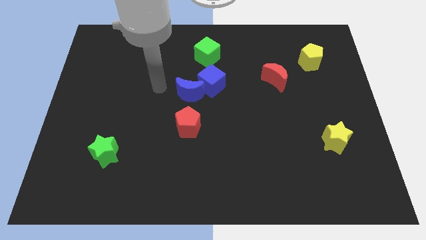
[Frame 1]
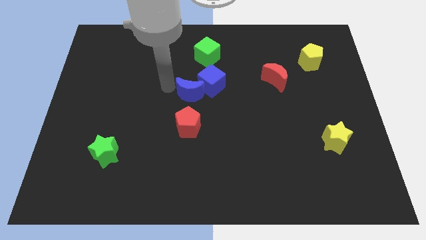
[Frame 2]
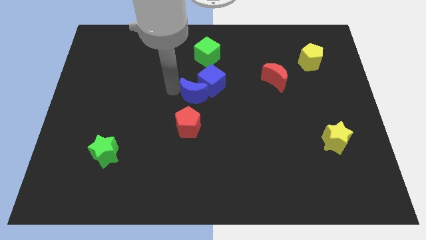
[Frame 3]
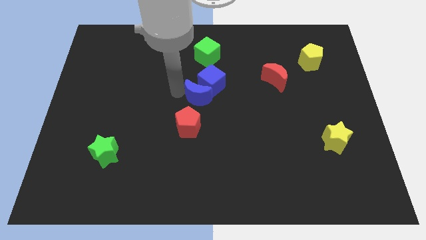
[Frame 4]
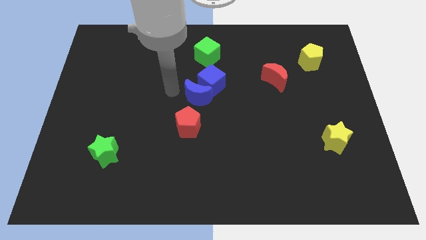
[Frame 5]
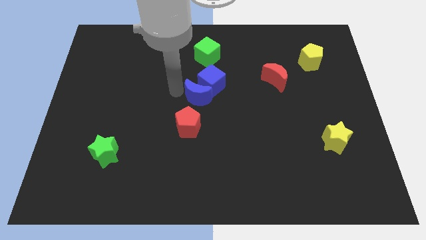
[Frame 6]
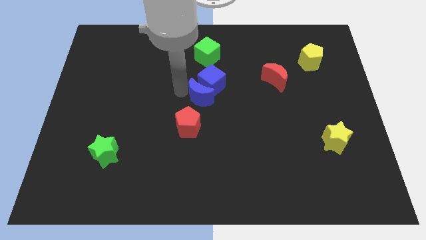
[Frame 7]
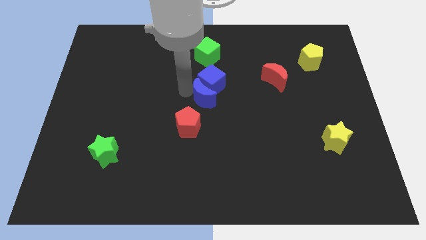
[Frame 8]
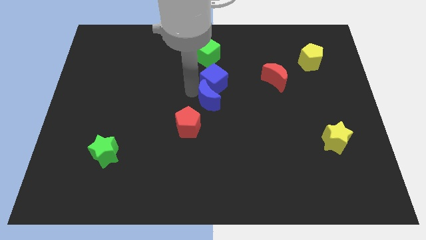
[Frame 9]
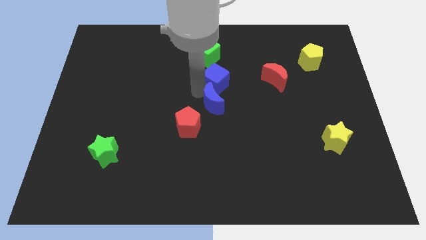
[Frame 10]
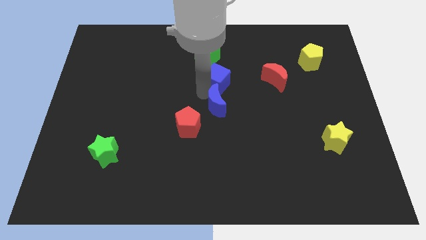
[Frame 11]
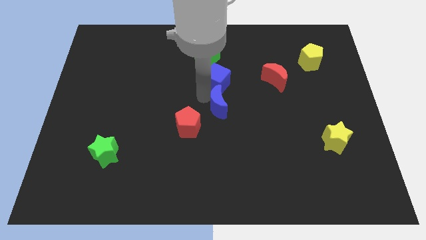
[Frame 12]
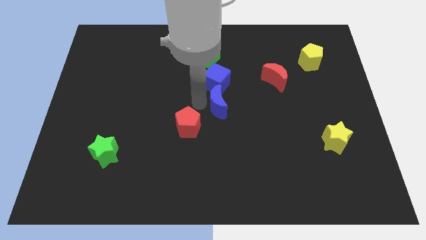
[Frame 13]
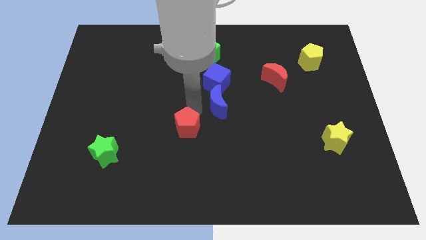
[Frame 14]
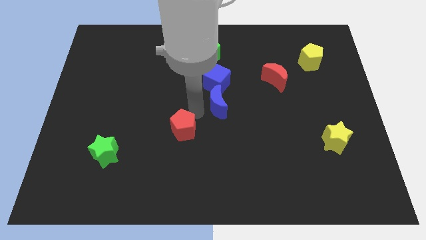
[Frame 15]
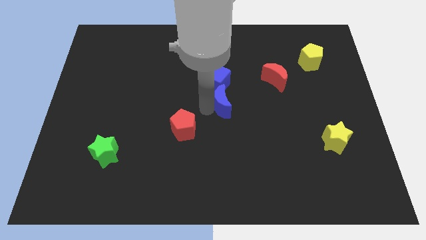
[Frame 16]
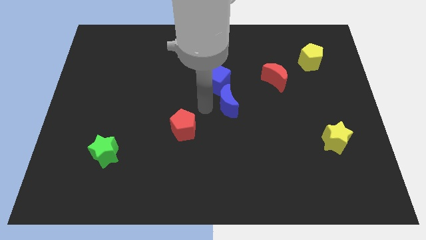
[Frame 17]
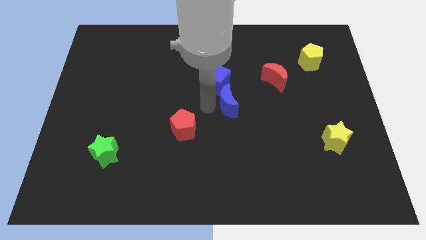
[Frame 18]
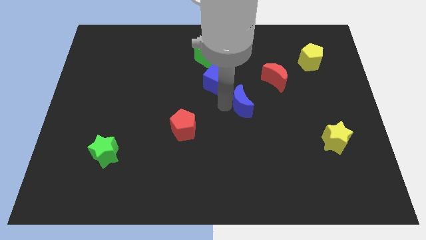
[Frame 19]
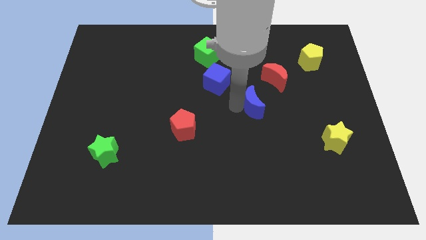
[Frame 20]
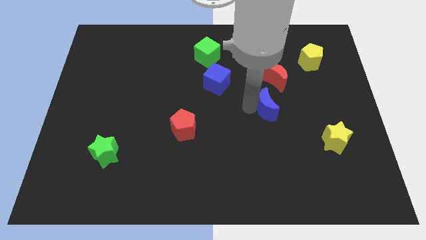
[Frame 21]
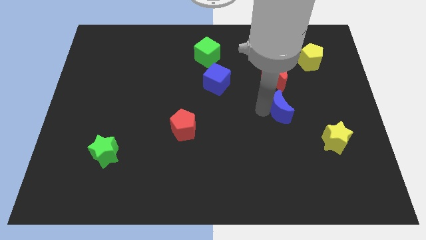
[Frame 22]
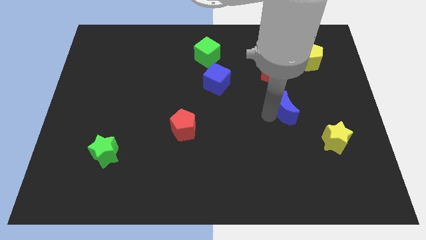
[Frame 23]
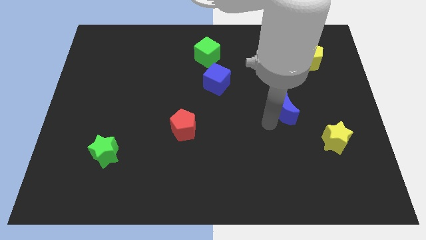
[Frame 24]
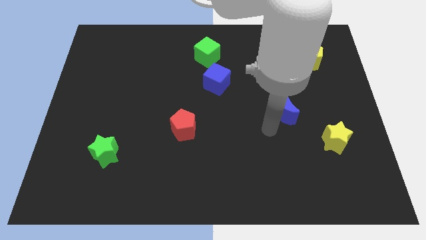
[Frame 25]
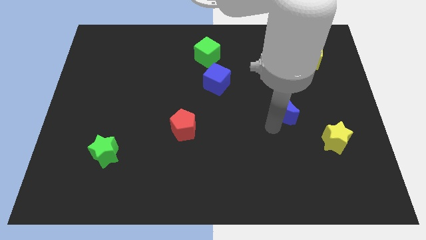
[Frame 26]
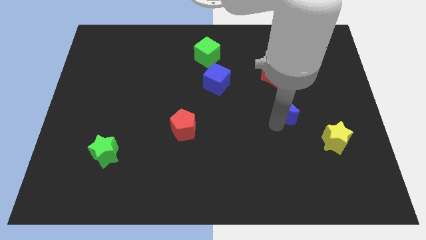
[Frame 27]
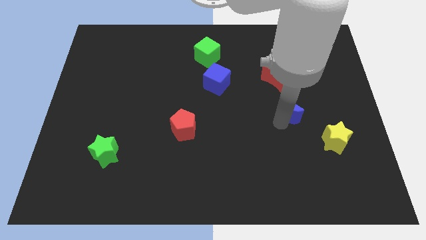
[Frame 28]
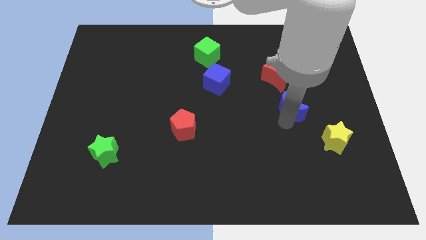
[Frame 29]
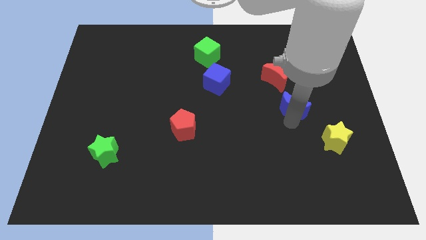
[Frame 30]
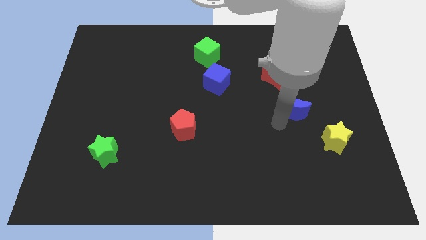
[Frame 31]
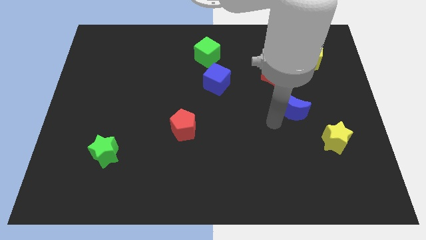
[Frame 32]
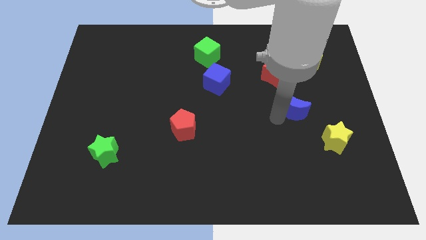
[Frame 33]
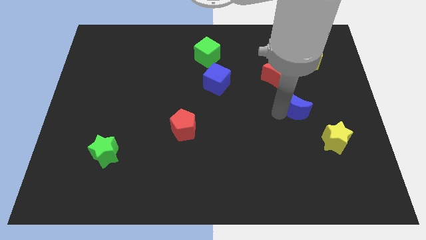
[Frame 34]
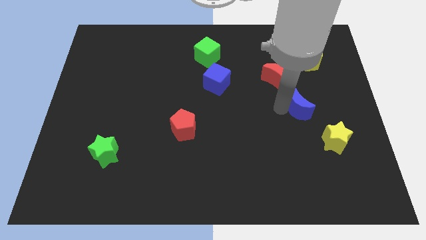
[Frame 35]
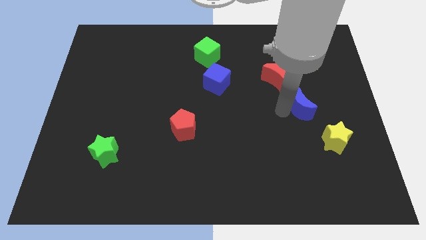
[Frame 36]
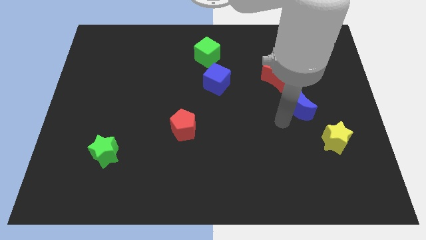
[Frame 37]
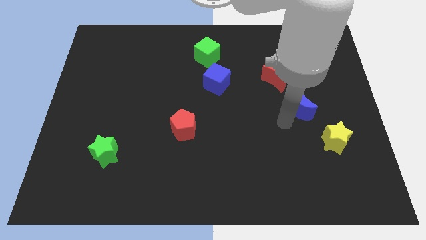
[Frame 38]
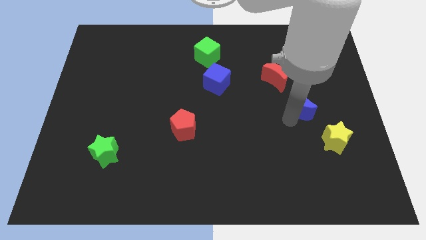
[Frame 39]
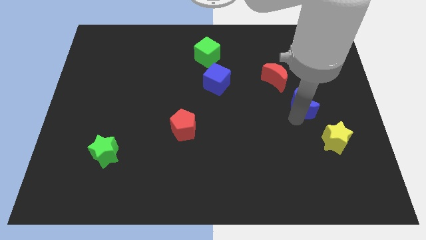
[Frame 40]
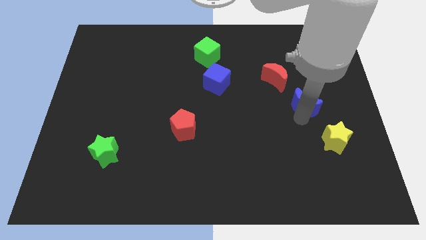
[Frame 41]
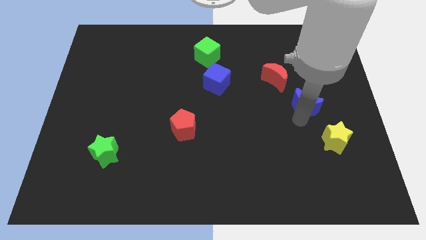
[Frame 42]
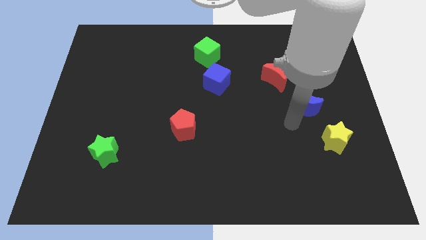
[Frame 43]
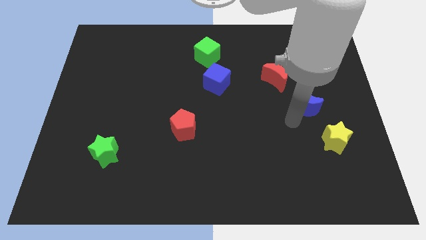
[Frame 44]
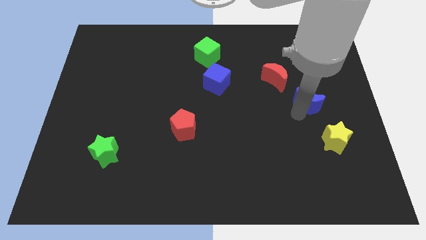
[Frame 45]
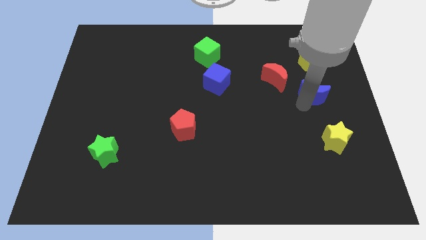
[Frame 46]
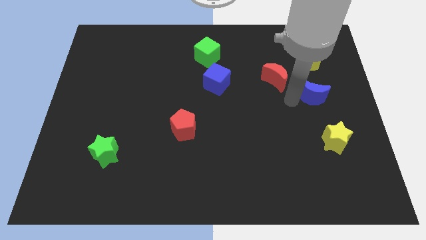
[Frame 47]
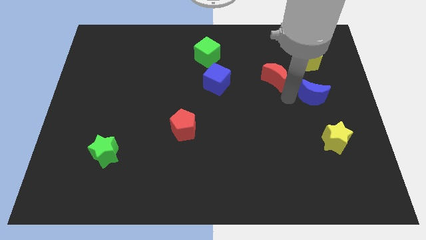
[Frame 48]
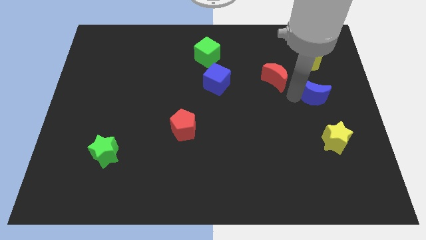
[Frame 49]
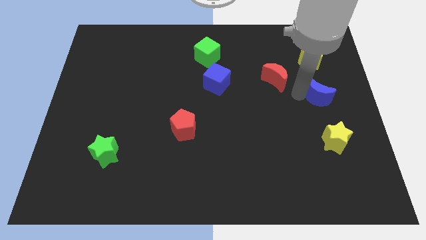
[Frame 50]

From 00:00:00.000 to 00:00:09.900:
move the blue moon to the right side of the board
